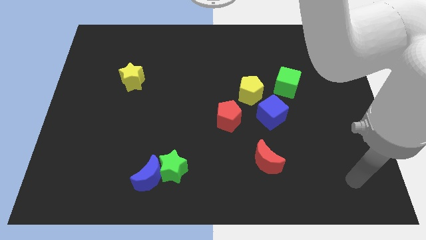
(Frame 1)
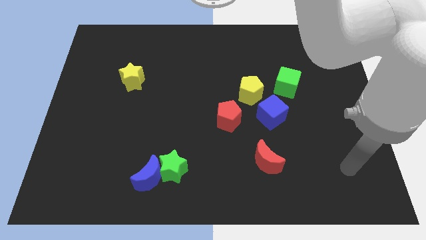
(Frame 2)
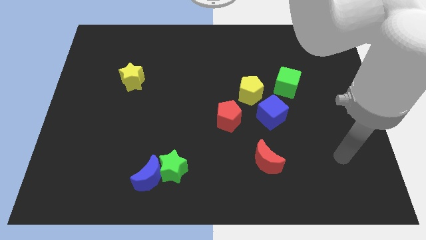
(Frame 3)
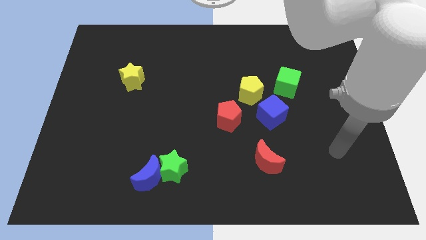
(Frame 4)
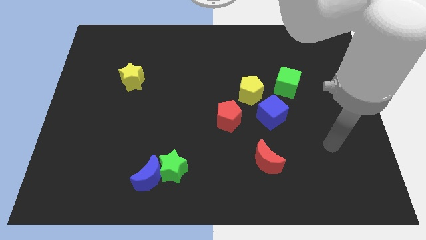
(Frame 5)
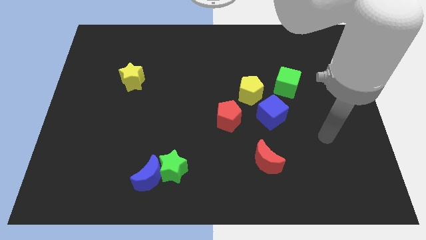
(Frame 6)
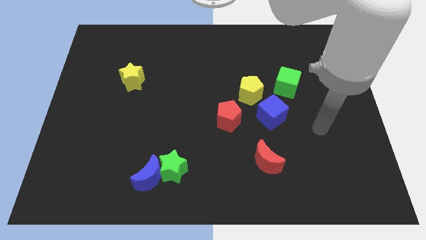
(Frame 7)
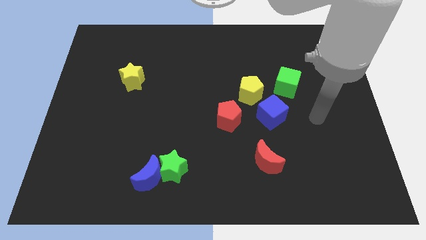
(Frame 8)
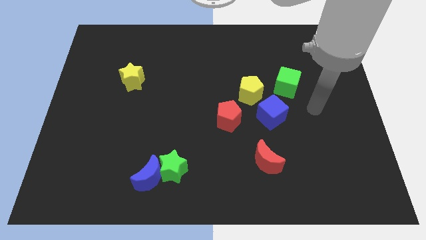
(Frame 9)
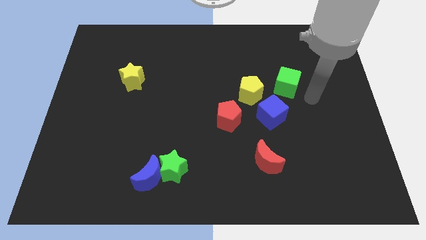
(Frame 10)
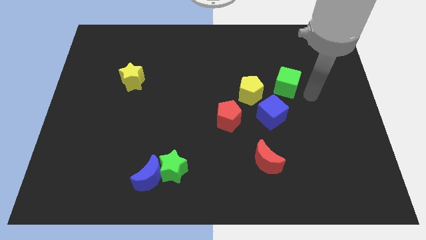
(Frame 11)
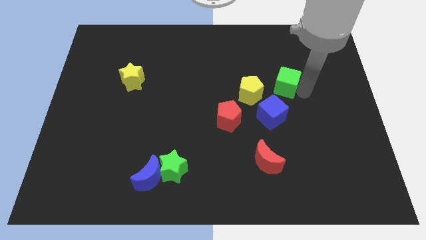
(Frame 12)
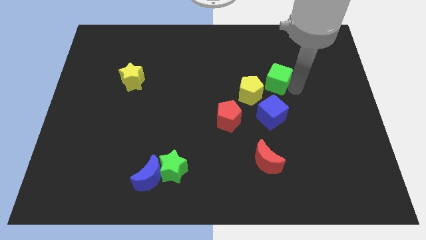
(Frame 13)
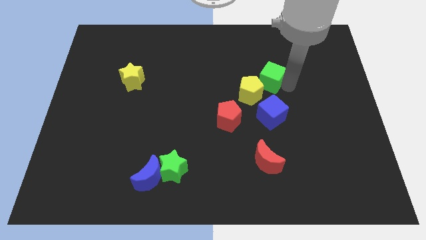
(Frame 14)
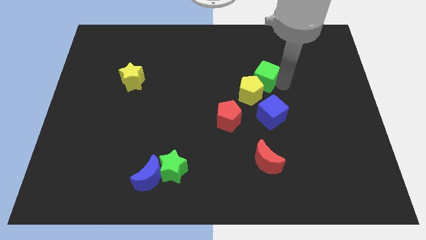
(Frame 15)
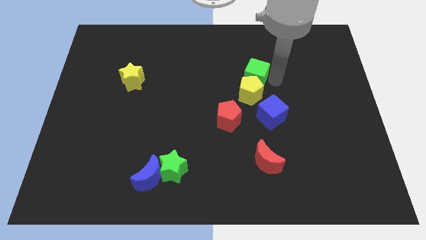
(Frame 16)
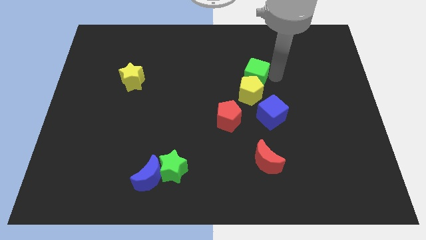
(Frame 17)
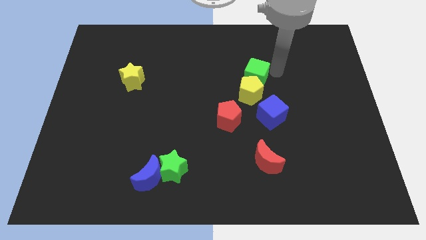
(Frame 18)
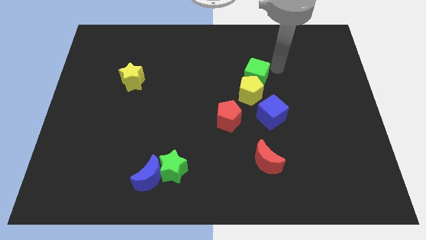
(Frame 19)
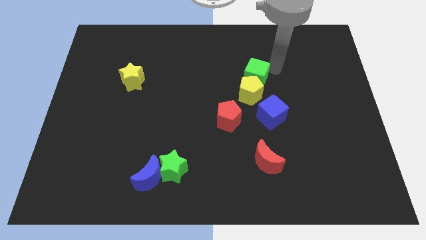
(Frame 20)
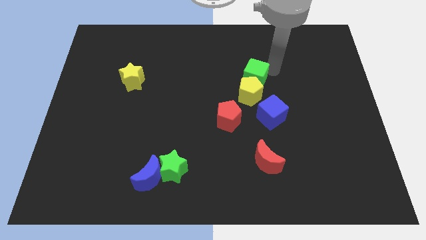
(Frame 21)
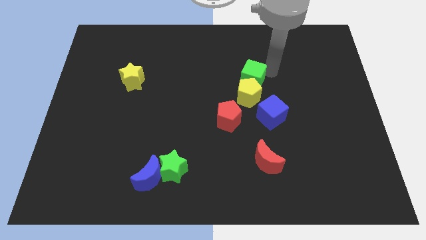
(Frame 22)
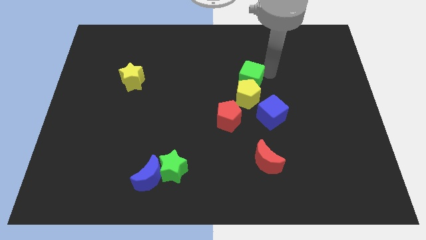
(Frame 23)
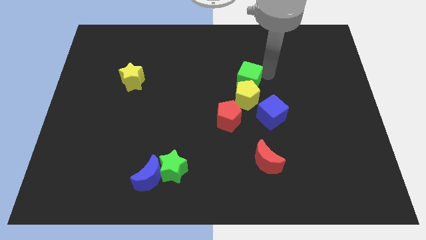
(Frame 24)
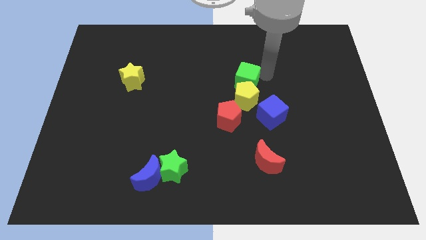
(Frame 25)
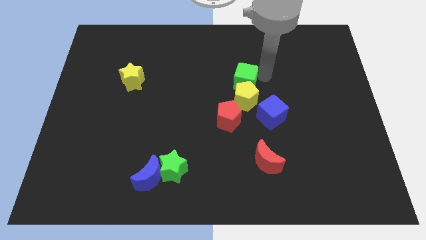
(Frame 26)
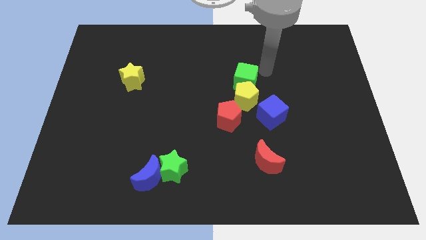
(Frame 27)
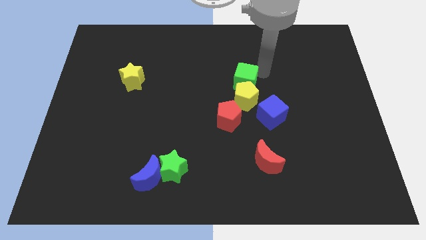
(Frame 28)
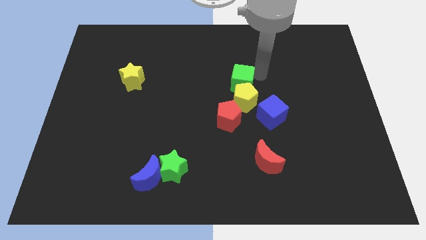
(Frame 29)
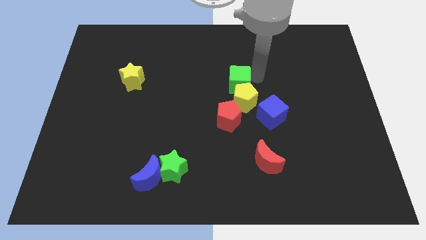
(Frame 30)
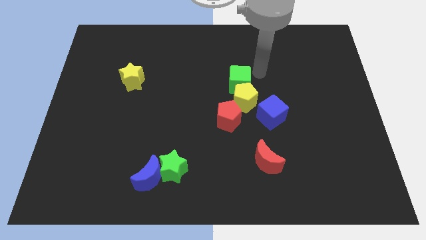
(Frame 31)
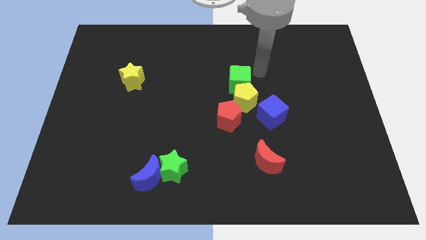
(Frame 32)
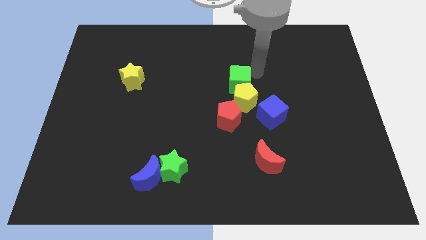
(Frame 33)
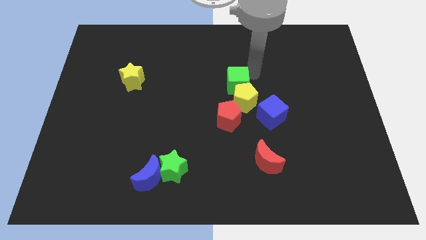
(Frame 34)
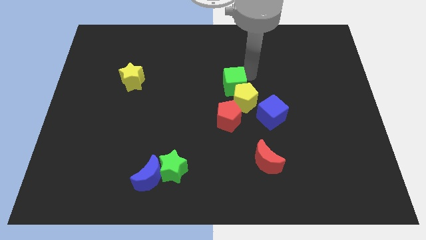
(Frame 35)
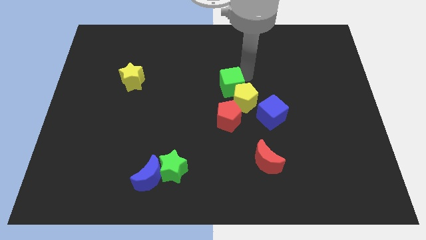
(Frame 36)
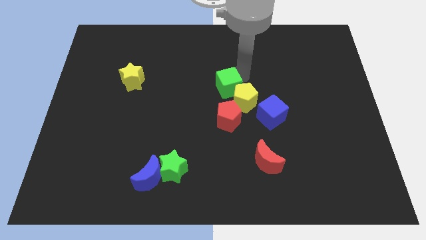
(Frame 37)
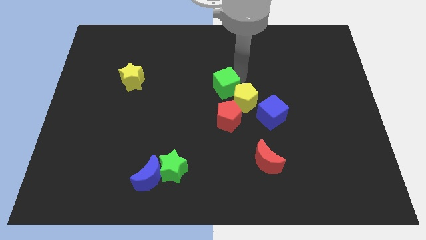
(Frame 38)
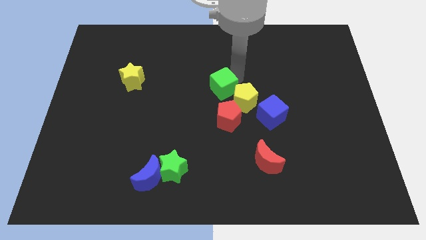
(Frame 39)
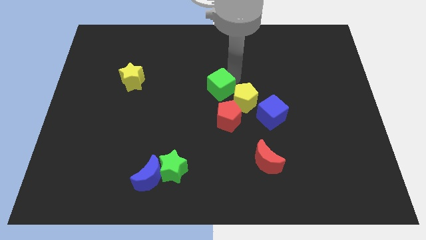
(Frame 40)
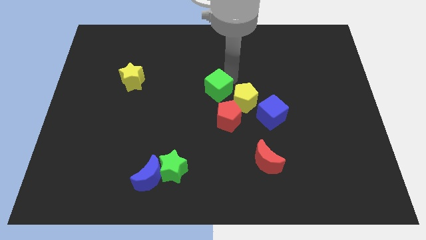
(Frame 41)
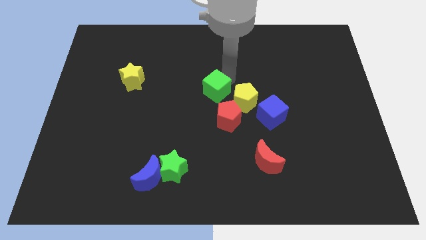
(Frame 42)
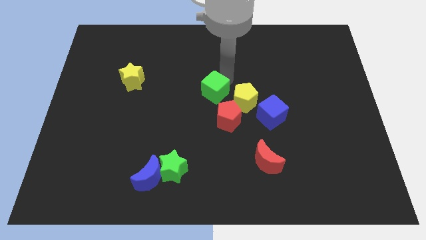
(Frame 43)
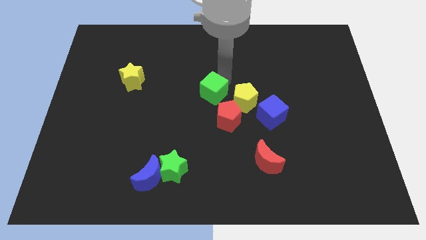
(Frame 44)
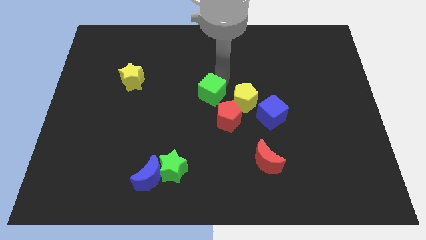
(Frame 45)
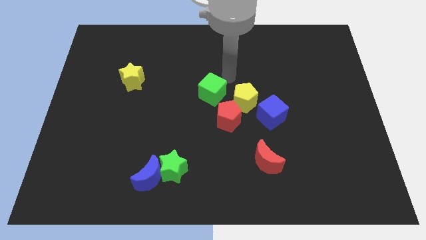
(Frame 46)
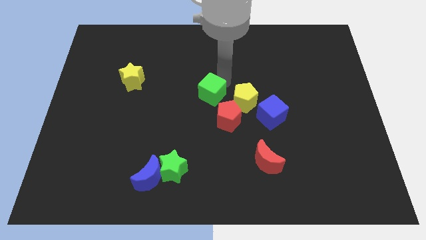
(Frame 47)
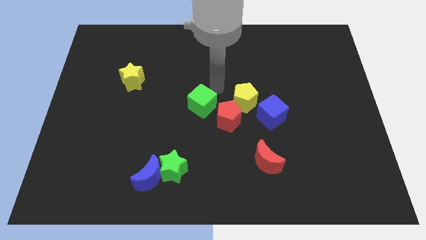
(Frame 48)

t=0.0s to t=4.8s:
push the green cube just left of the red pentagon

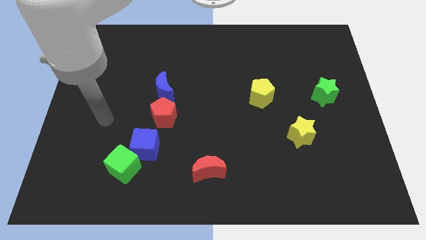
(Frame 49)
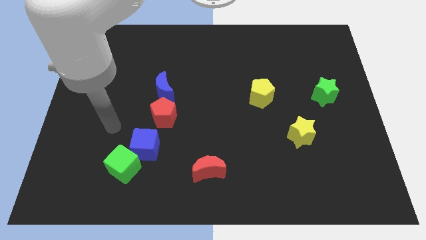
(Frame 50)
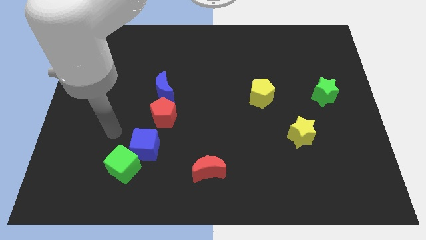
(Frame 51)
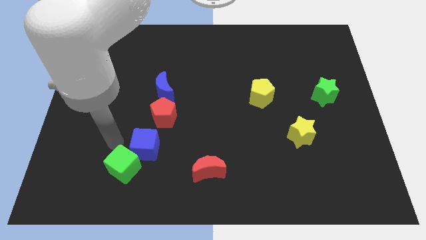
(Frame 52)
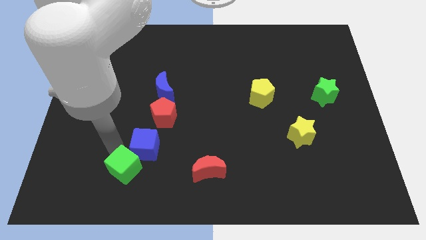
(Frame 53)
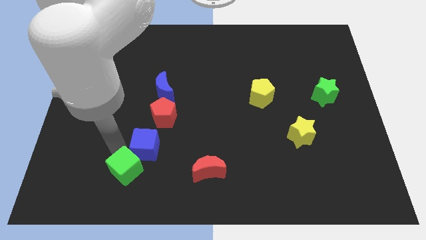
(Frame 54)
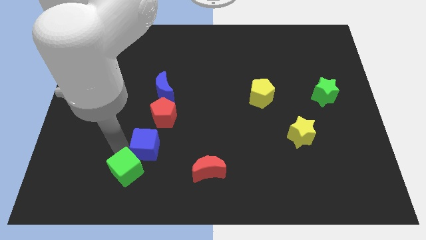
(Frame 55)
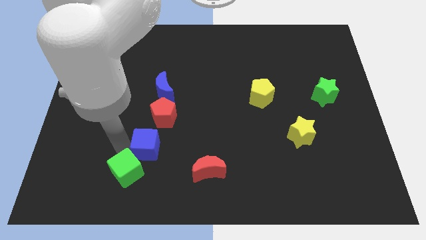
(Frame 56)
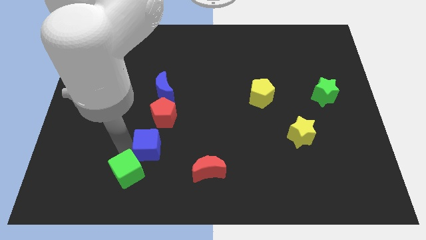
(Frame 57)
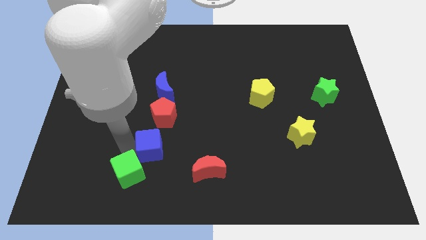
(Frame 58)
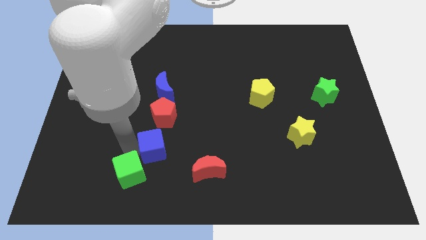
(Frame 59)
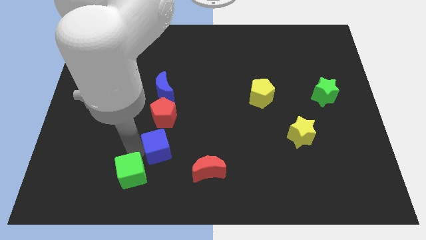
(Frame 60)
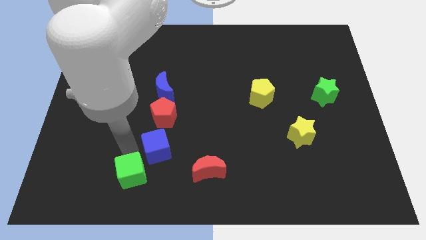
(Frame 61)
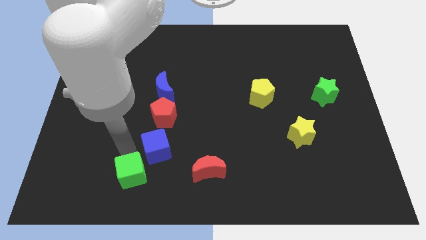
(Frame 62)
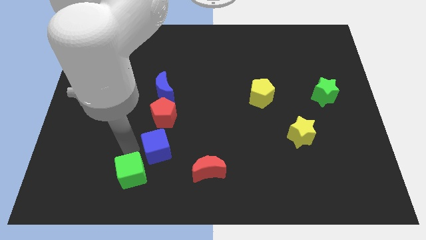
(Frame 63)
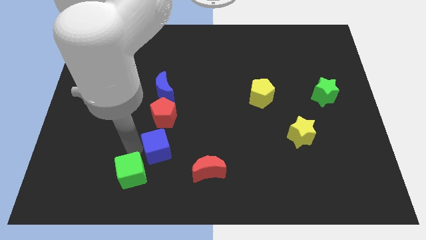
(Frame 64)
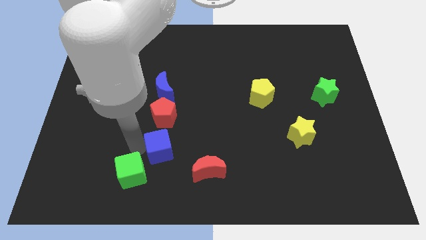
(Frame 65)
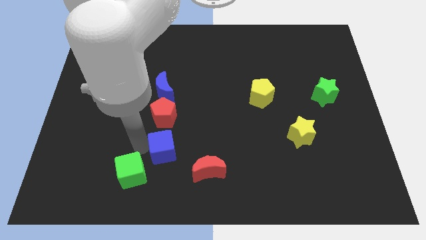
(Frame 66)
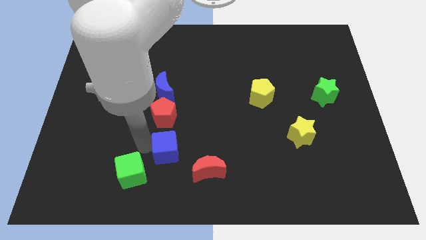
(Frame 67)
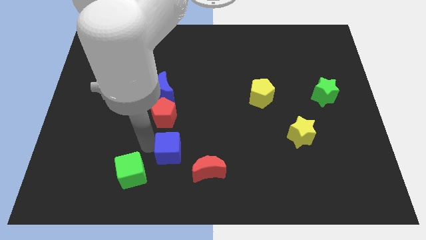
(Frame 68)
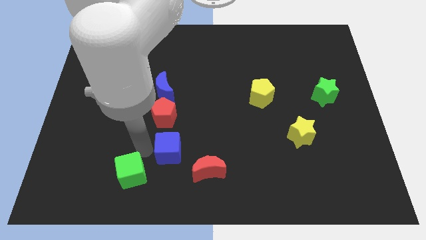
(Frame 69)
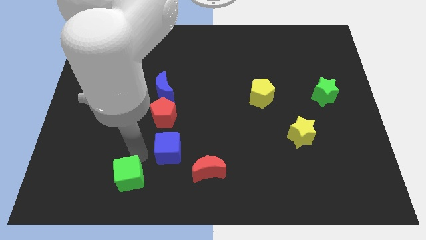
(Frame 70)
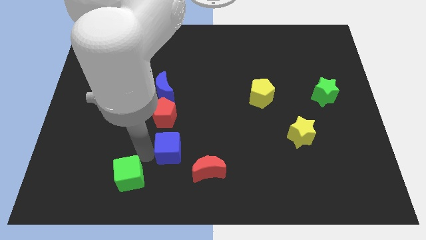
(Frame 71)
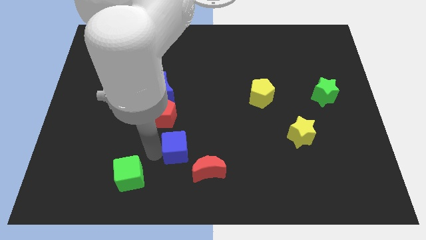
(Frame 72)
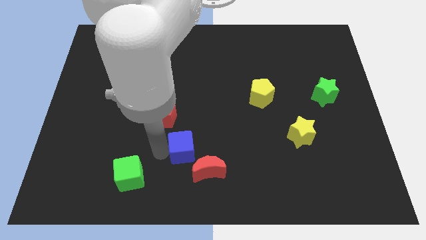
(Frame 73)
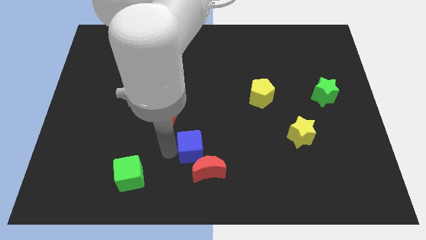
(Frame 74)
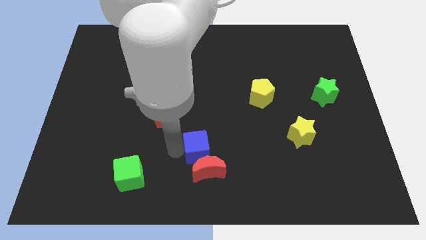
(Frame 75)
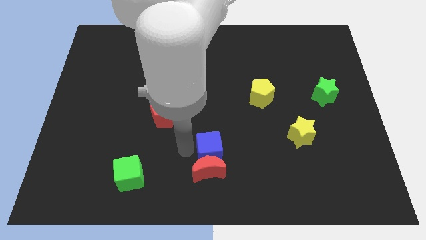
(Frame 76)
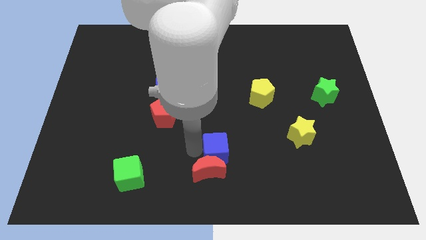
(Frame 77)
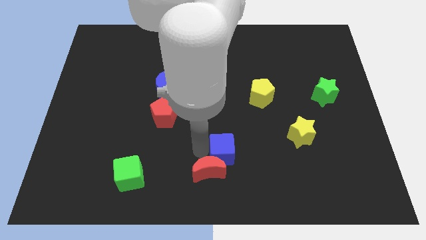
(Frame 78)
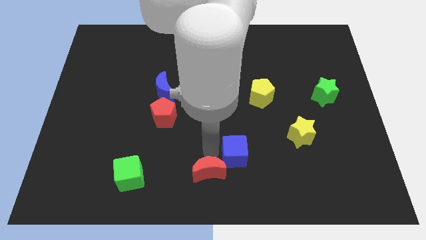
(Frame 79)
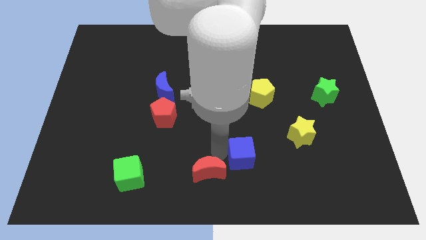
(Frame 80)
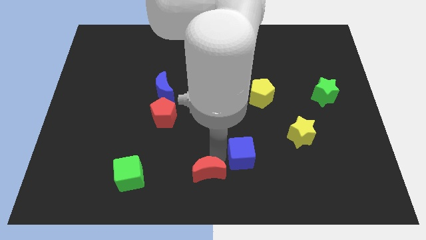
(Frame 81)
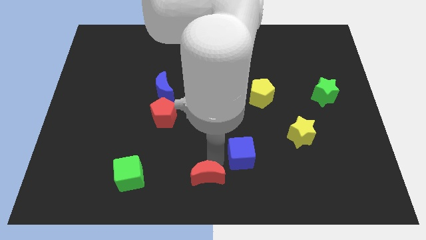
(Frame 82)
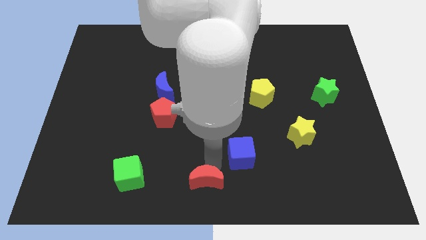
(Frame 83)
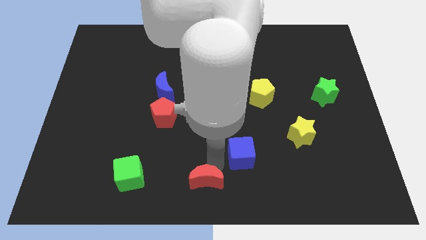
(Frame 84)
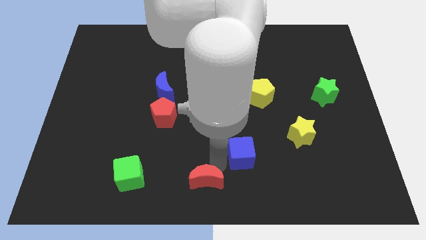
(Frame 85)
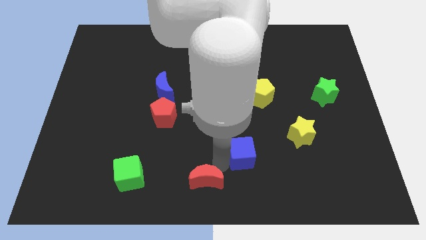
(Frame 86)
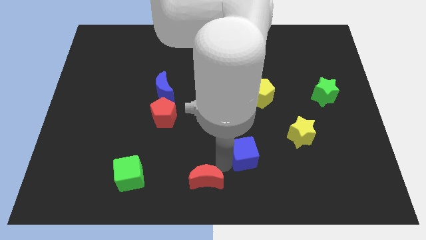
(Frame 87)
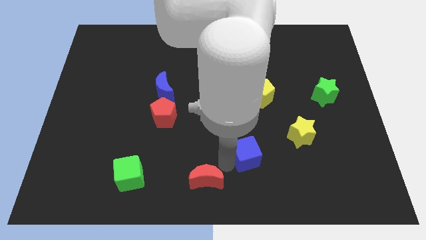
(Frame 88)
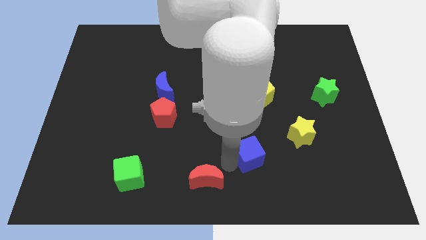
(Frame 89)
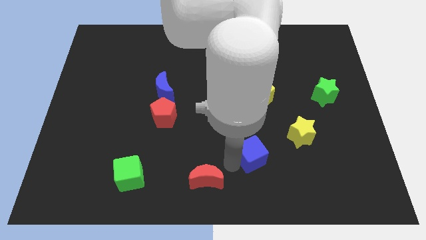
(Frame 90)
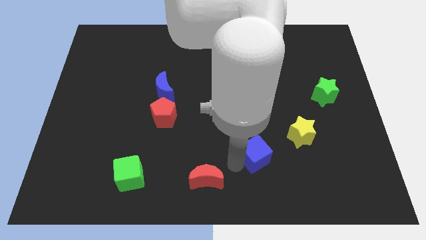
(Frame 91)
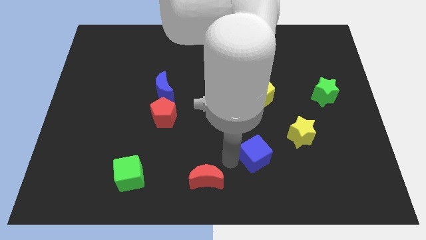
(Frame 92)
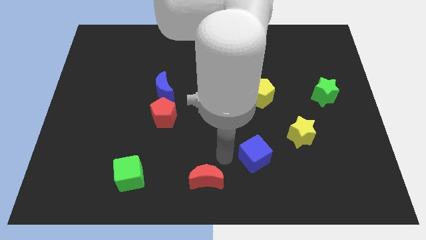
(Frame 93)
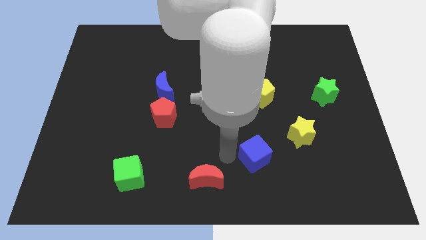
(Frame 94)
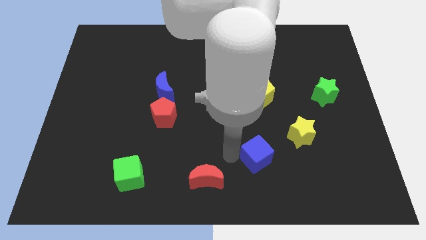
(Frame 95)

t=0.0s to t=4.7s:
push the blue cube diagonally down and to the left of the yellow star
